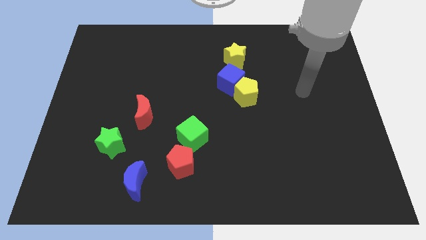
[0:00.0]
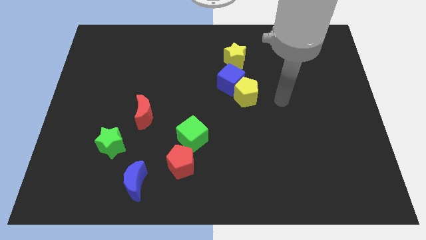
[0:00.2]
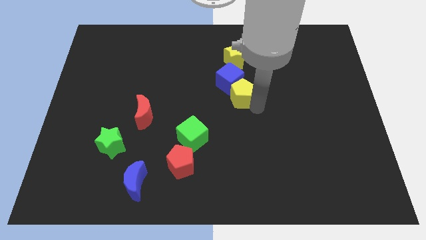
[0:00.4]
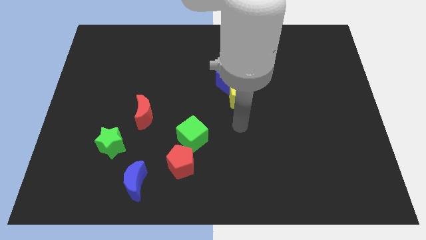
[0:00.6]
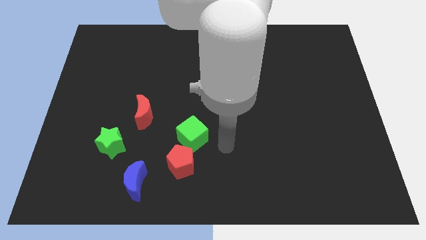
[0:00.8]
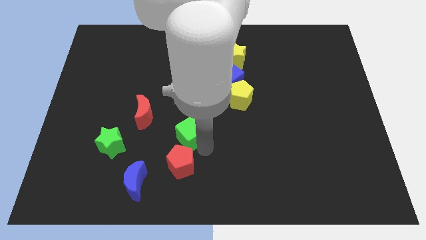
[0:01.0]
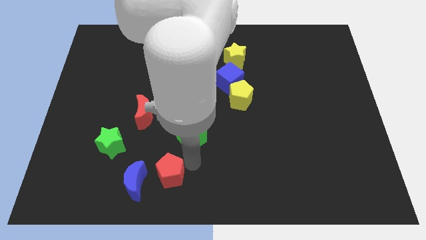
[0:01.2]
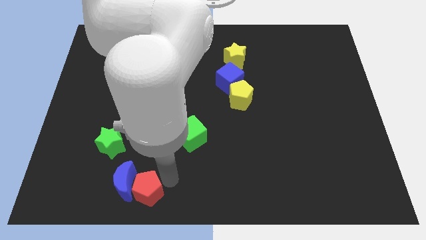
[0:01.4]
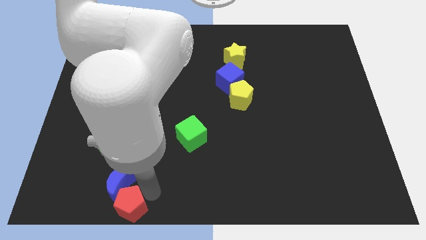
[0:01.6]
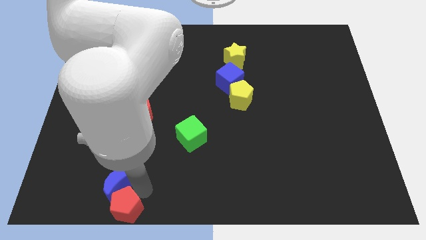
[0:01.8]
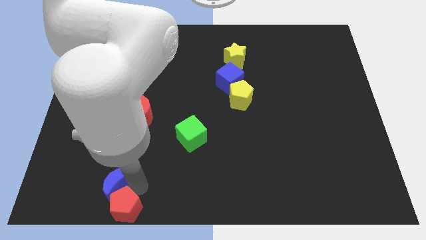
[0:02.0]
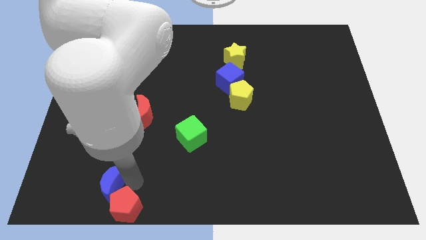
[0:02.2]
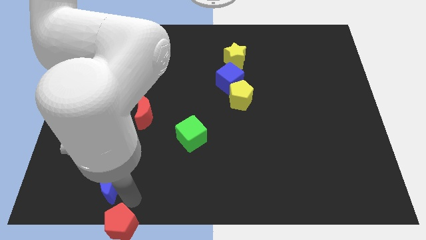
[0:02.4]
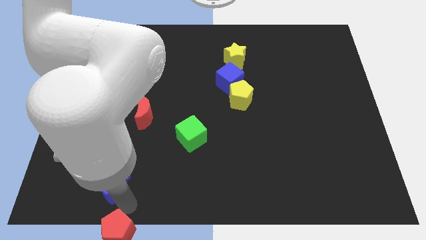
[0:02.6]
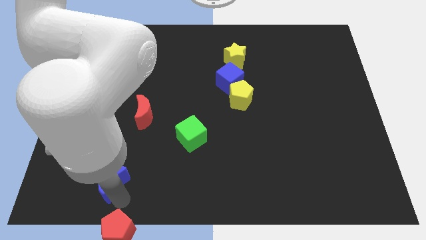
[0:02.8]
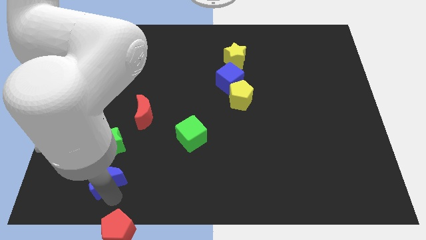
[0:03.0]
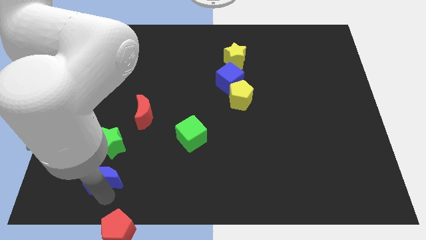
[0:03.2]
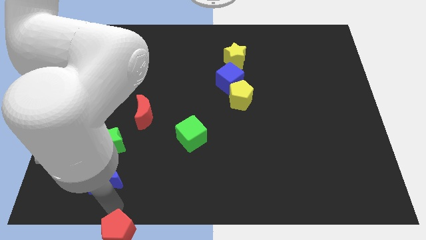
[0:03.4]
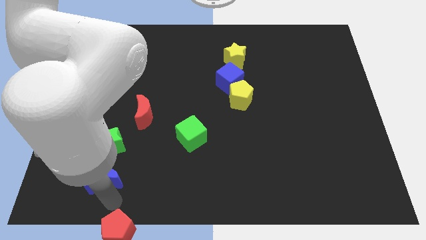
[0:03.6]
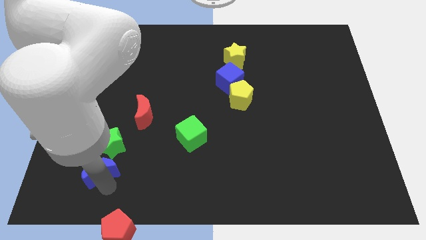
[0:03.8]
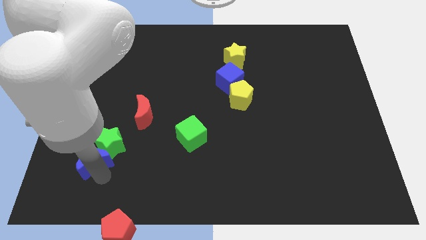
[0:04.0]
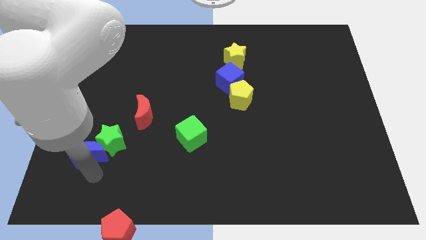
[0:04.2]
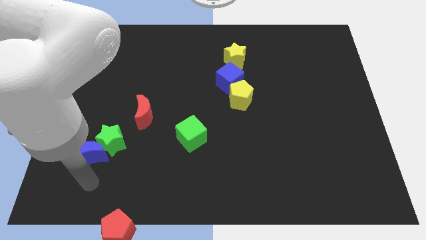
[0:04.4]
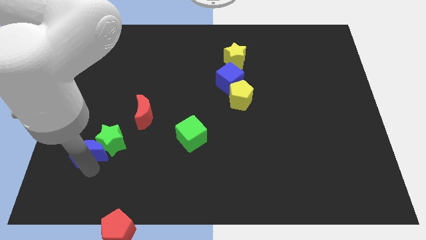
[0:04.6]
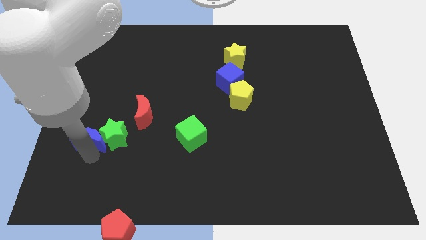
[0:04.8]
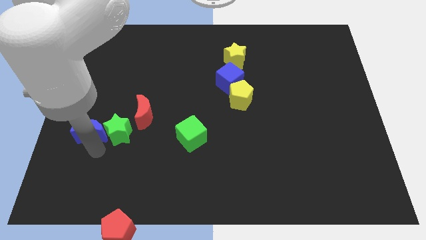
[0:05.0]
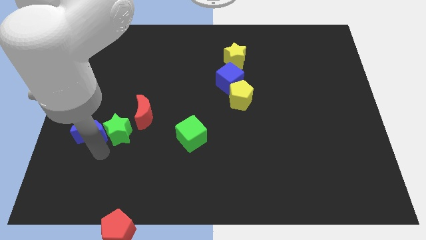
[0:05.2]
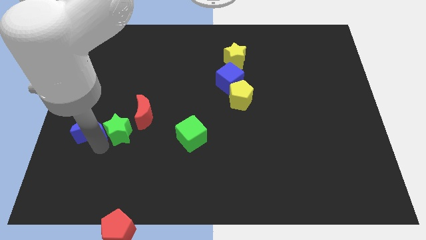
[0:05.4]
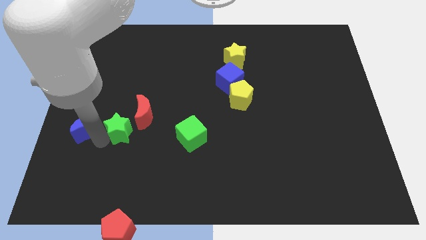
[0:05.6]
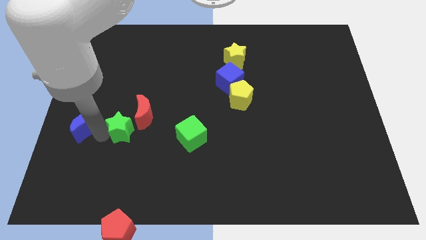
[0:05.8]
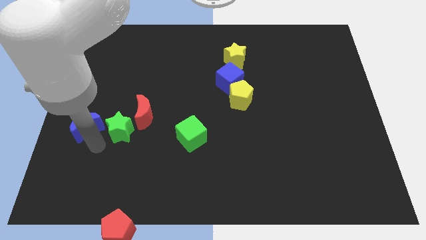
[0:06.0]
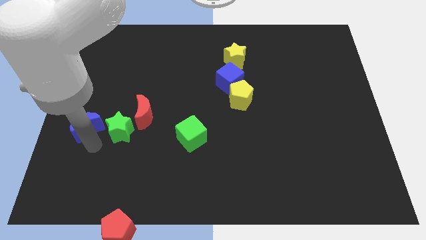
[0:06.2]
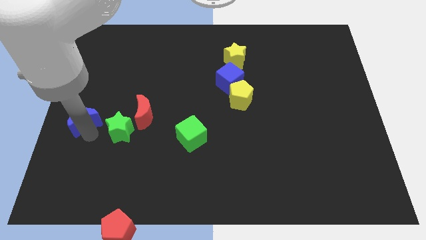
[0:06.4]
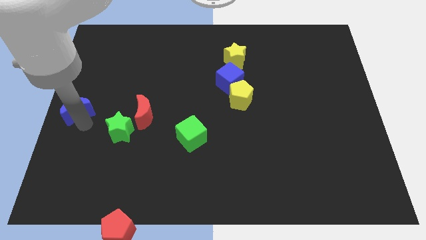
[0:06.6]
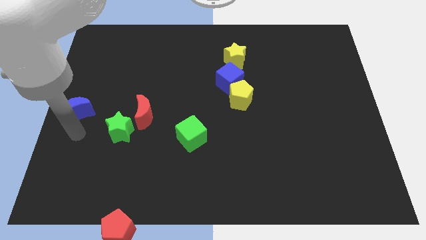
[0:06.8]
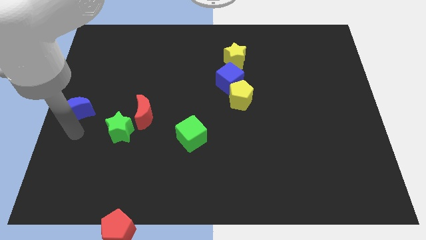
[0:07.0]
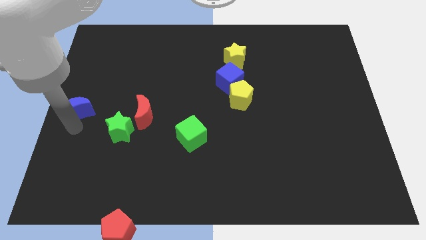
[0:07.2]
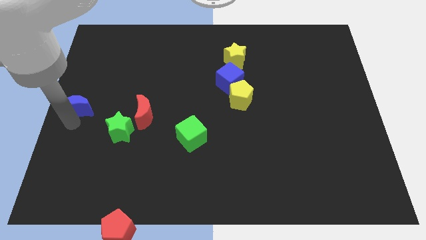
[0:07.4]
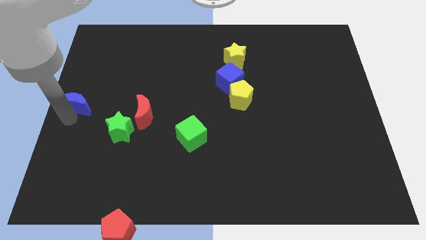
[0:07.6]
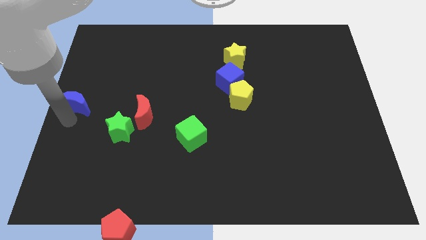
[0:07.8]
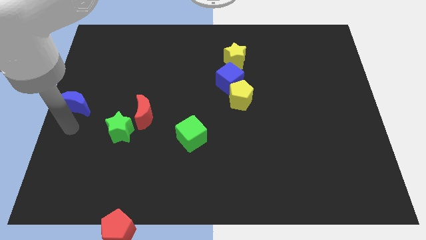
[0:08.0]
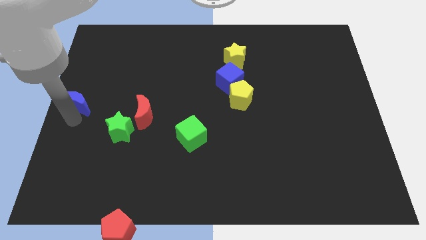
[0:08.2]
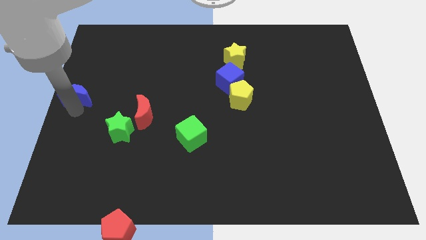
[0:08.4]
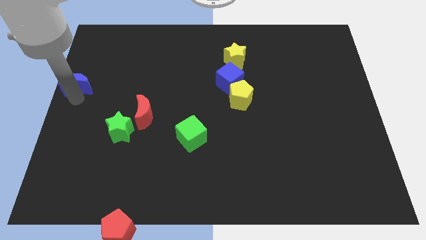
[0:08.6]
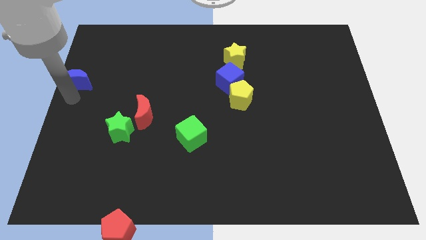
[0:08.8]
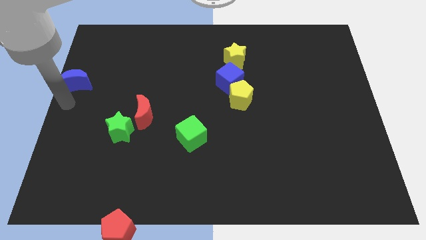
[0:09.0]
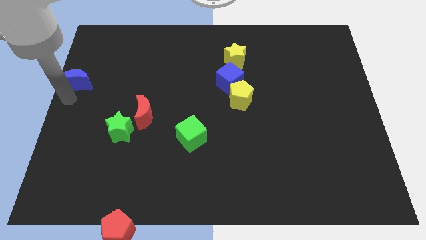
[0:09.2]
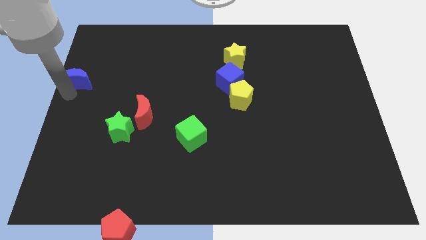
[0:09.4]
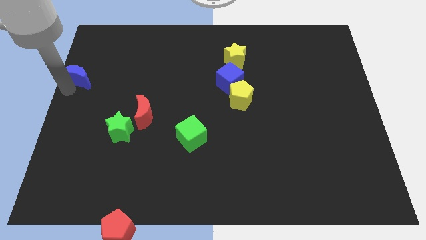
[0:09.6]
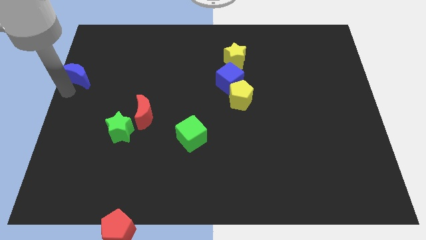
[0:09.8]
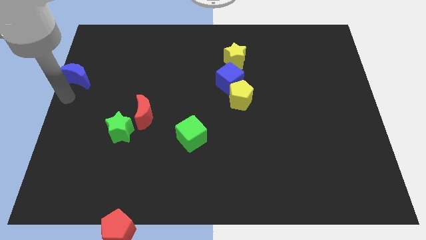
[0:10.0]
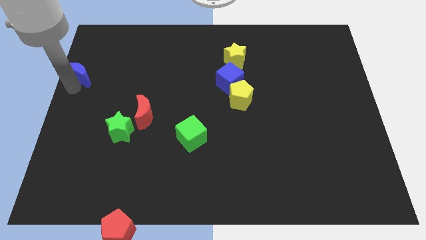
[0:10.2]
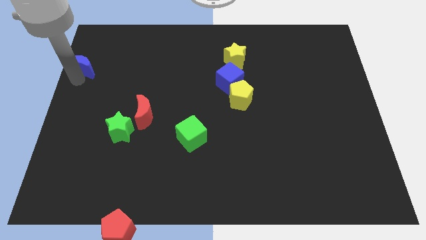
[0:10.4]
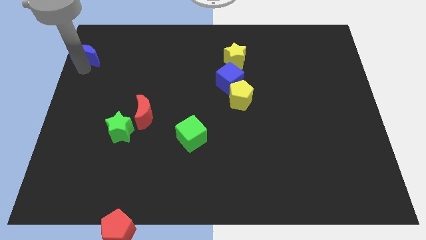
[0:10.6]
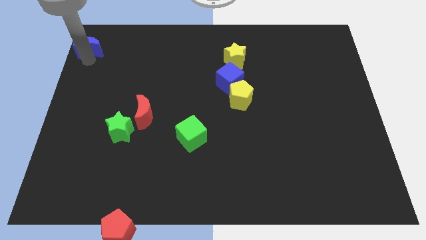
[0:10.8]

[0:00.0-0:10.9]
push the blue moon to the upper left corner

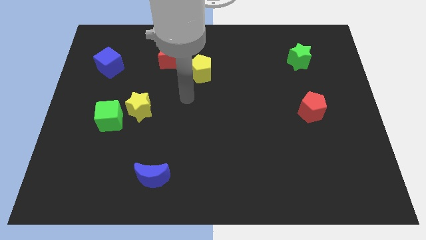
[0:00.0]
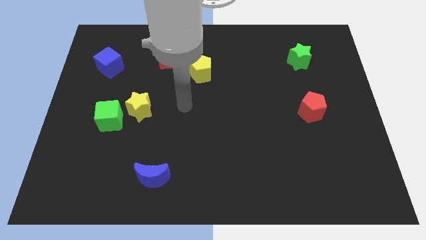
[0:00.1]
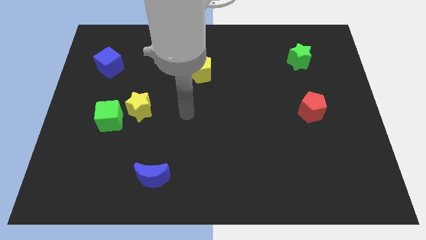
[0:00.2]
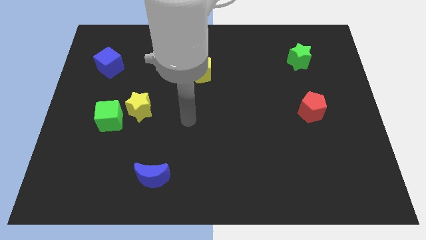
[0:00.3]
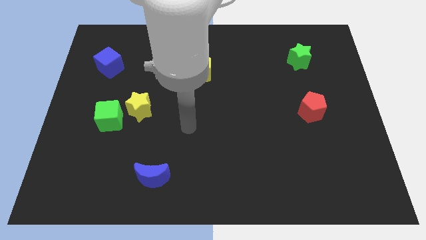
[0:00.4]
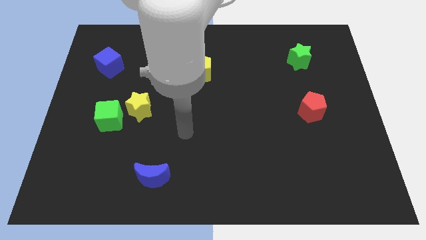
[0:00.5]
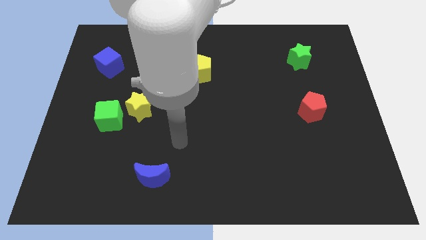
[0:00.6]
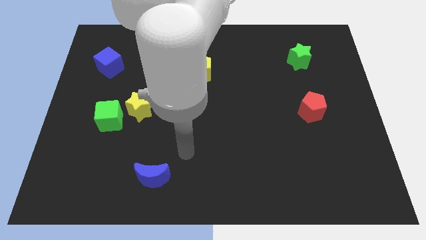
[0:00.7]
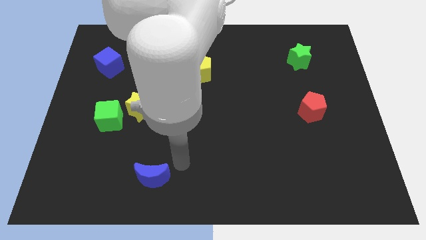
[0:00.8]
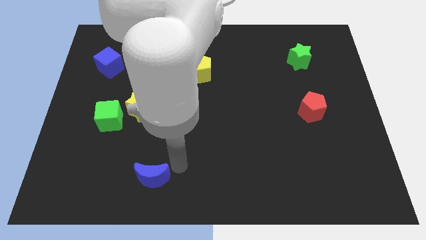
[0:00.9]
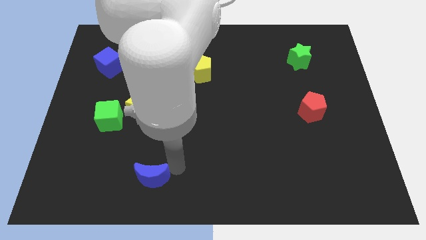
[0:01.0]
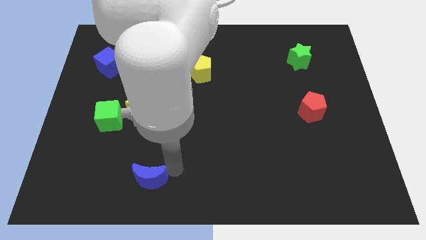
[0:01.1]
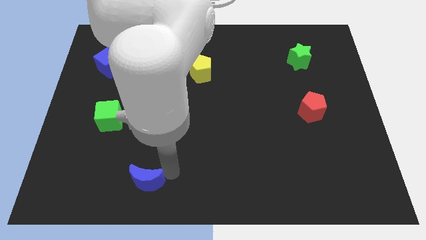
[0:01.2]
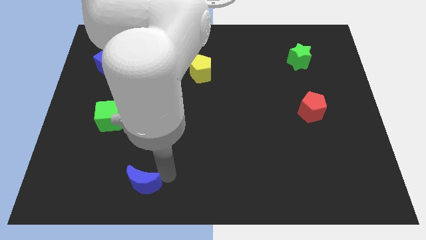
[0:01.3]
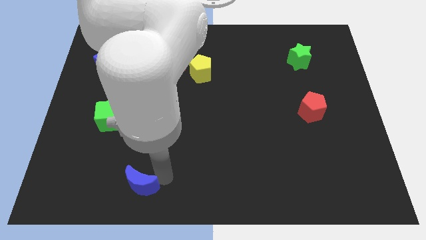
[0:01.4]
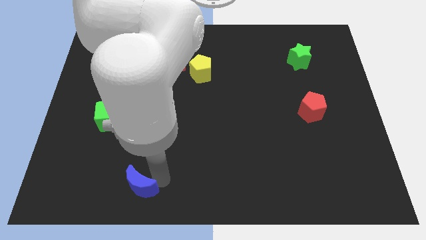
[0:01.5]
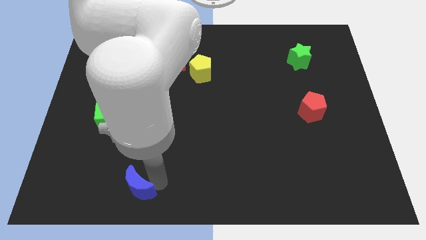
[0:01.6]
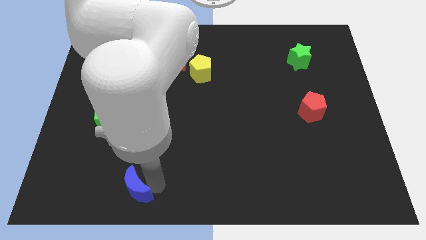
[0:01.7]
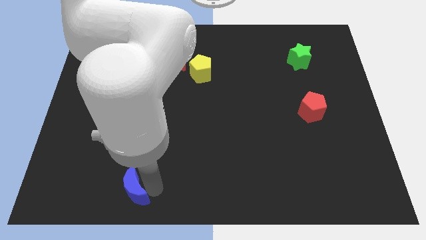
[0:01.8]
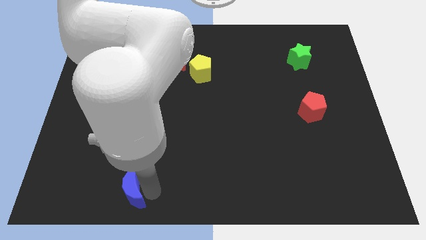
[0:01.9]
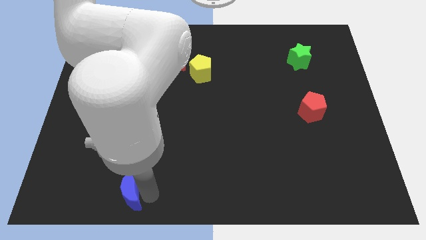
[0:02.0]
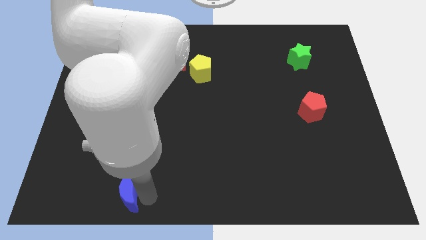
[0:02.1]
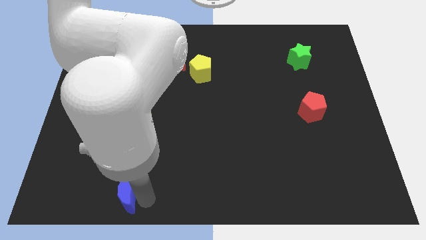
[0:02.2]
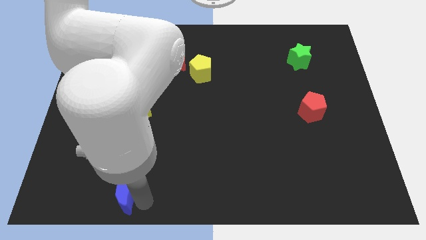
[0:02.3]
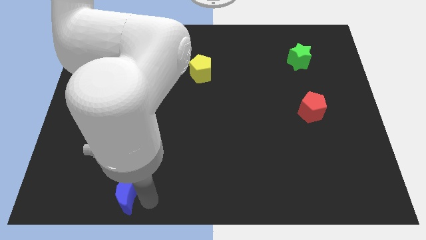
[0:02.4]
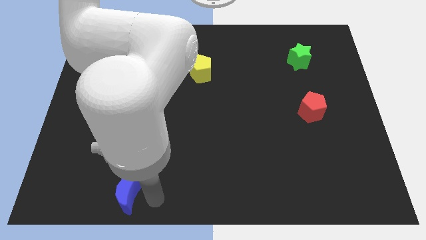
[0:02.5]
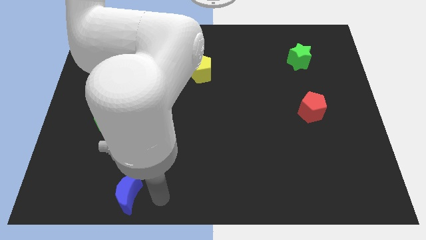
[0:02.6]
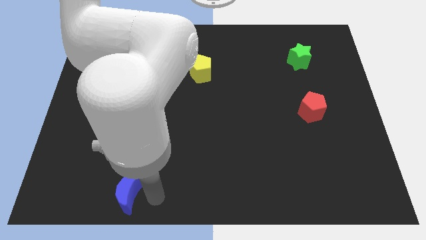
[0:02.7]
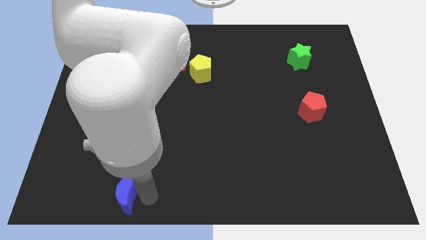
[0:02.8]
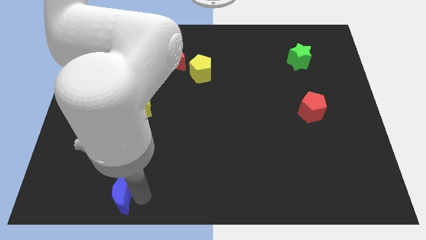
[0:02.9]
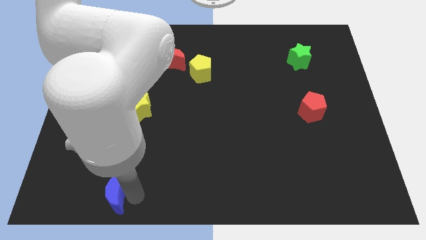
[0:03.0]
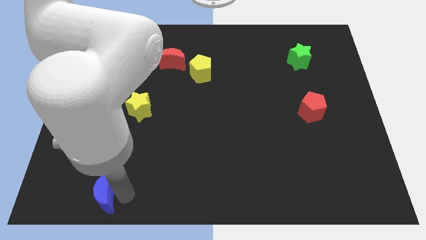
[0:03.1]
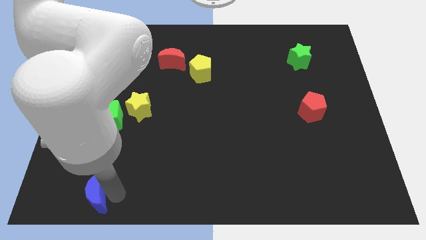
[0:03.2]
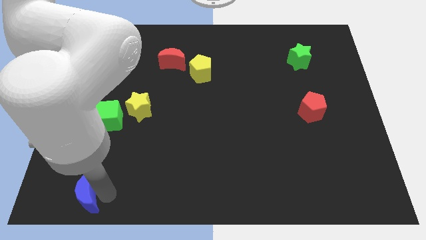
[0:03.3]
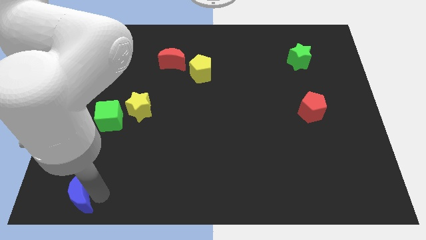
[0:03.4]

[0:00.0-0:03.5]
put the blue moon to the bottom left of the board
